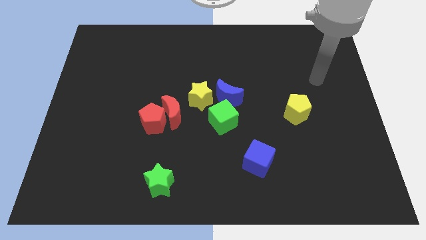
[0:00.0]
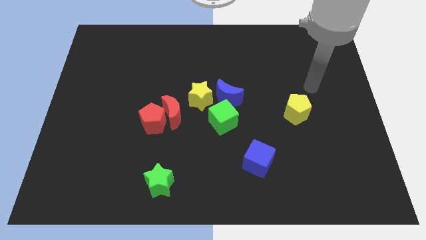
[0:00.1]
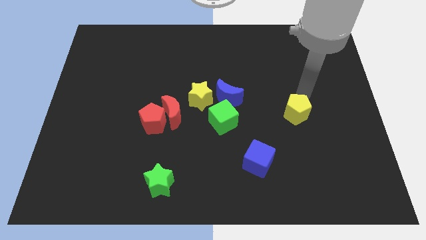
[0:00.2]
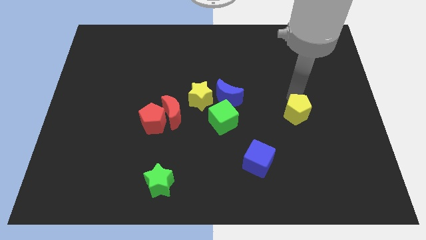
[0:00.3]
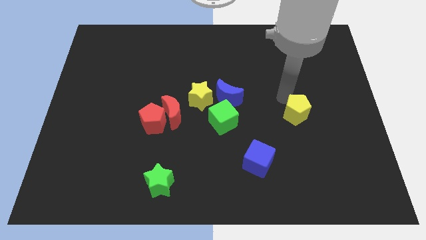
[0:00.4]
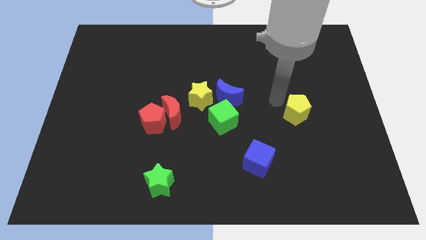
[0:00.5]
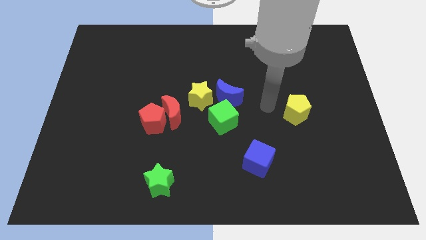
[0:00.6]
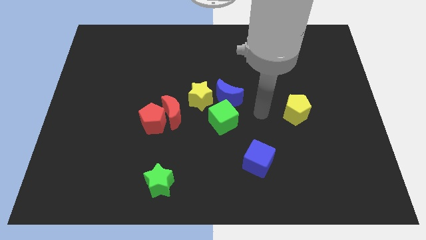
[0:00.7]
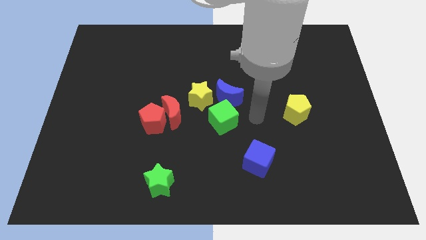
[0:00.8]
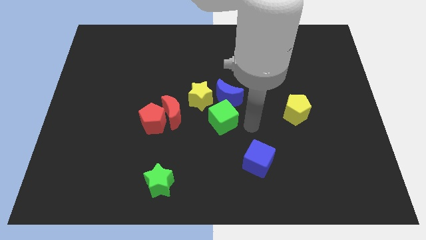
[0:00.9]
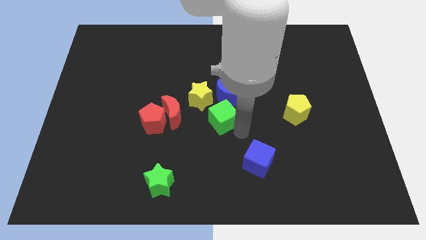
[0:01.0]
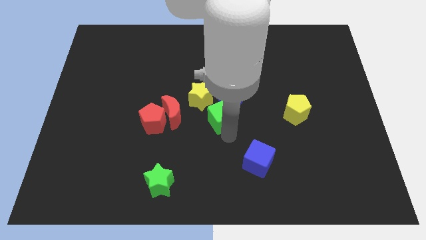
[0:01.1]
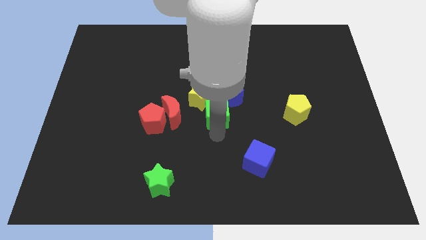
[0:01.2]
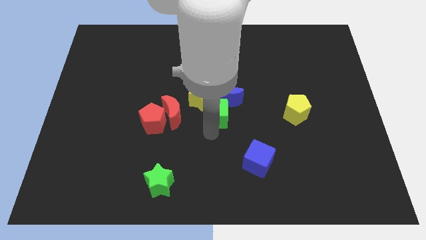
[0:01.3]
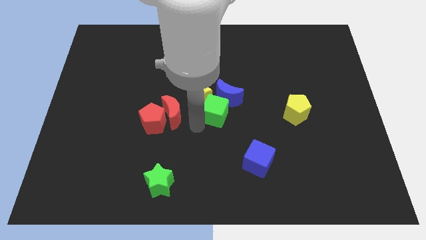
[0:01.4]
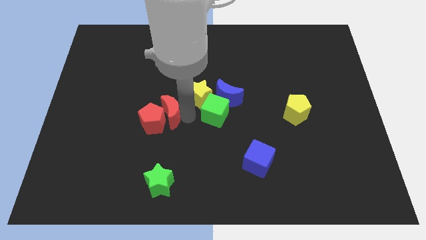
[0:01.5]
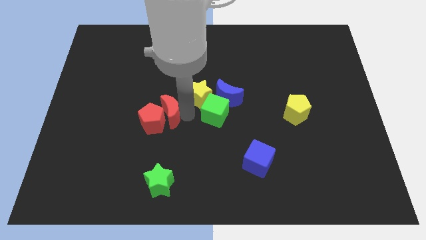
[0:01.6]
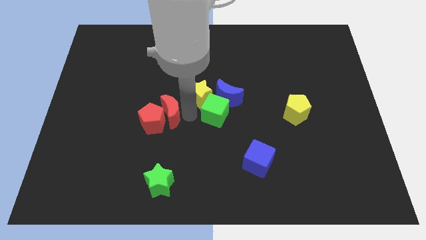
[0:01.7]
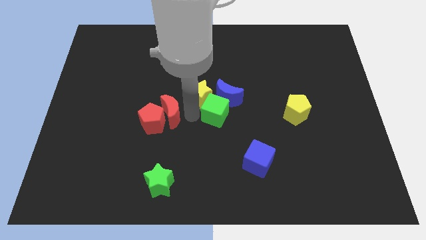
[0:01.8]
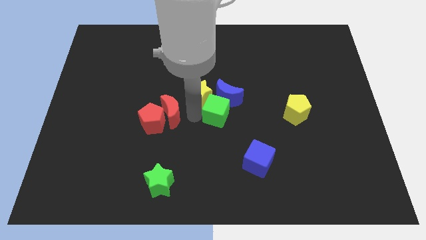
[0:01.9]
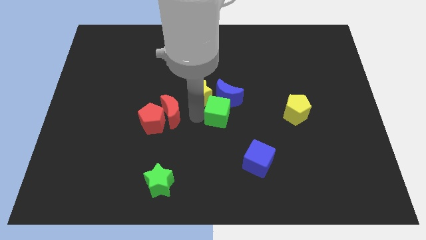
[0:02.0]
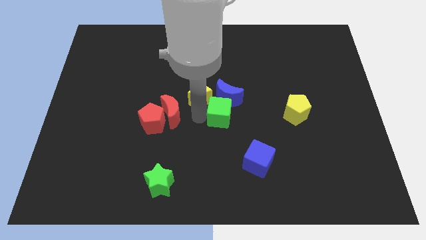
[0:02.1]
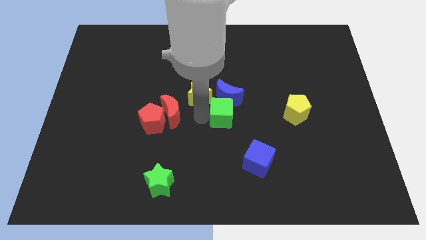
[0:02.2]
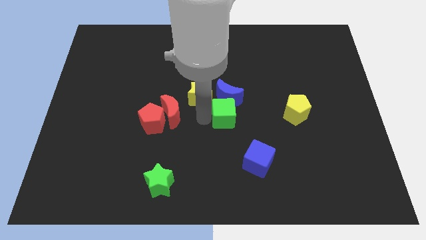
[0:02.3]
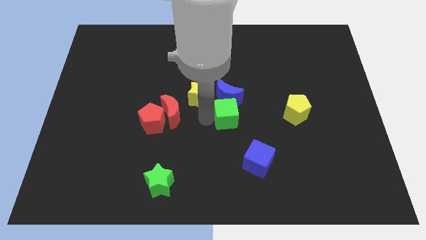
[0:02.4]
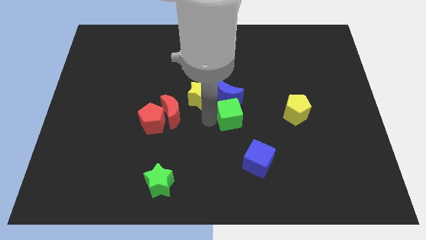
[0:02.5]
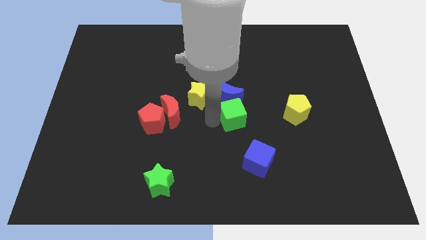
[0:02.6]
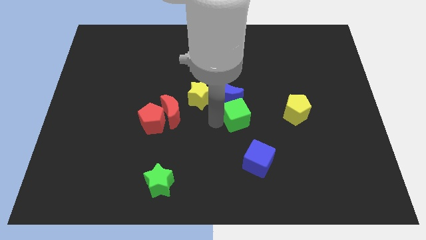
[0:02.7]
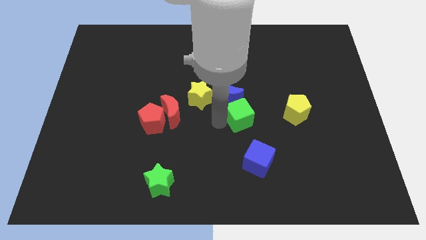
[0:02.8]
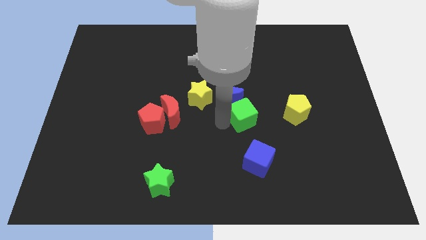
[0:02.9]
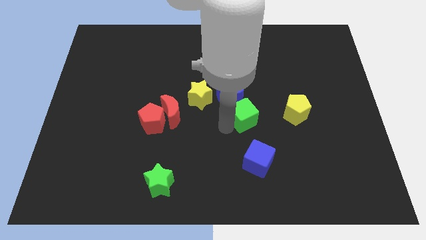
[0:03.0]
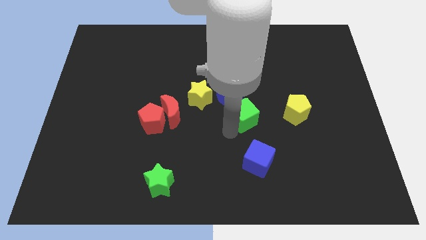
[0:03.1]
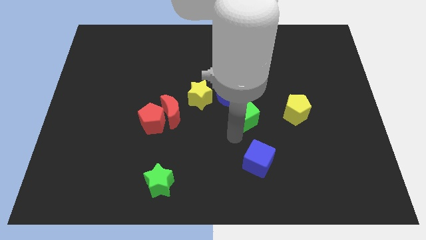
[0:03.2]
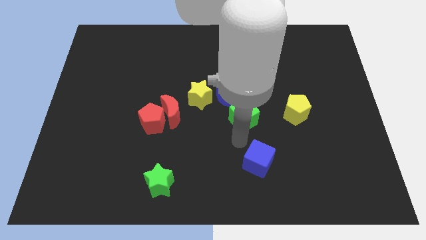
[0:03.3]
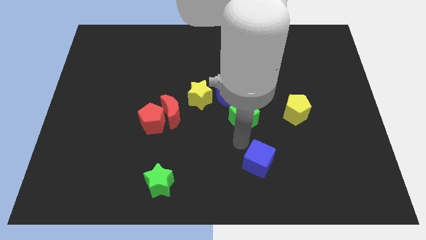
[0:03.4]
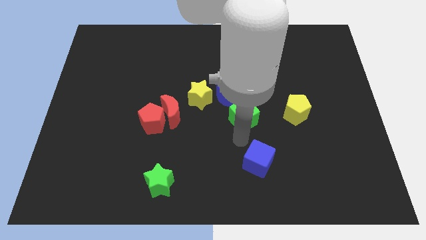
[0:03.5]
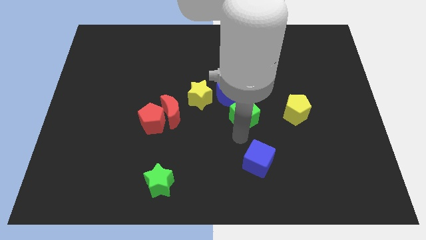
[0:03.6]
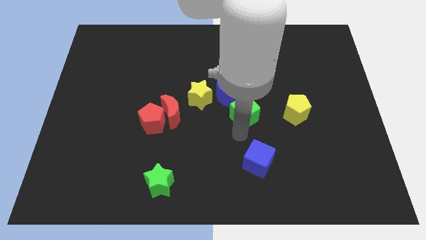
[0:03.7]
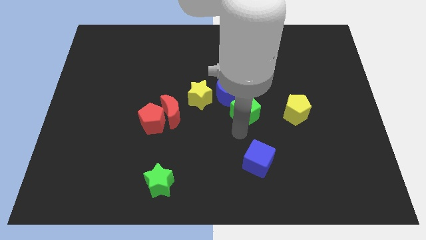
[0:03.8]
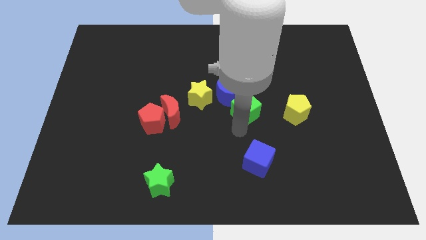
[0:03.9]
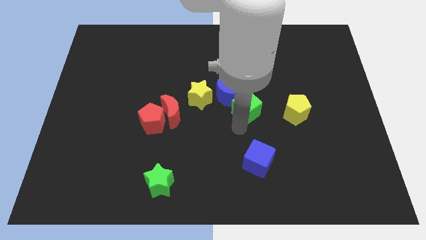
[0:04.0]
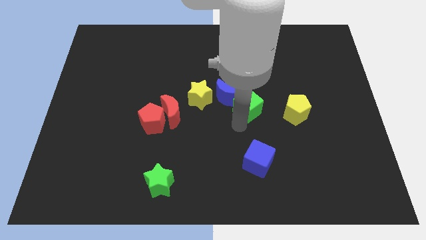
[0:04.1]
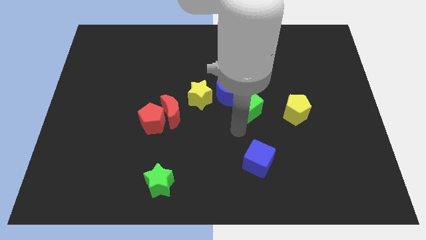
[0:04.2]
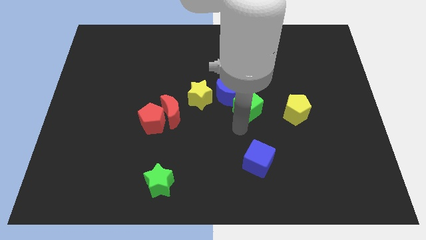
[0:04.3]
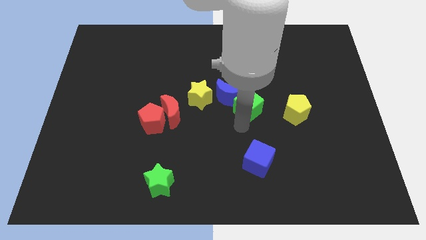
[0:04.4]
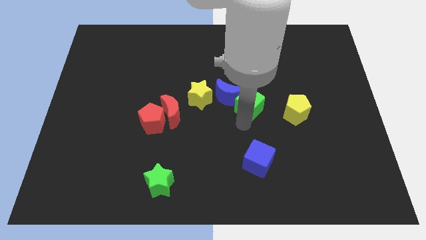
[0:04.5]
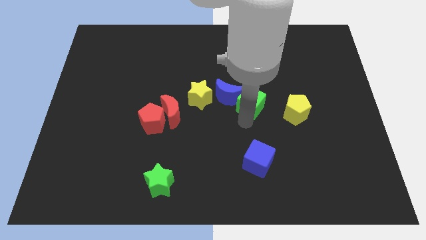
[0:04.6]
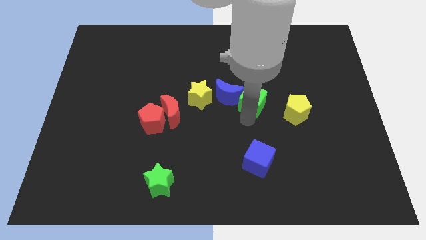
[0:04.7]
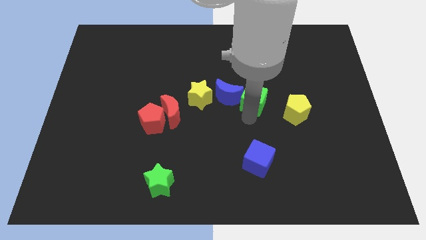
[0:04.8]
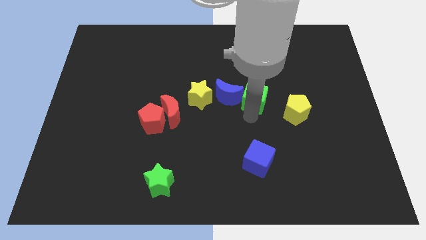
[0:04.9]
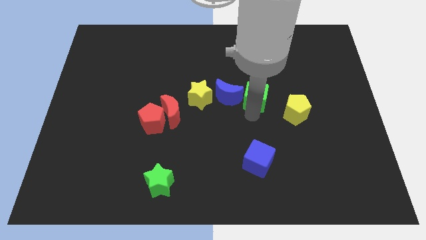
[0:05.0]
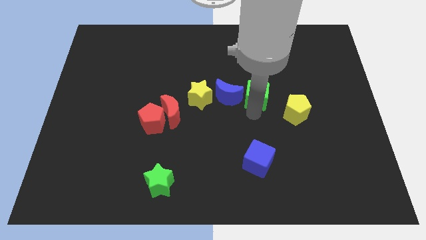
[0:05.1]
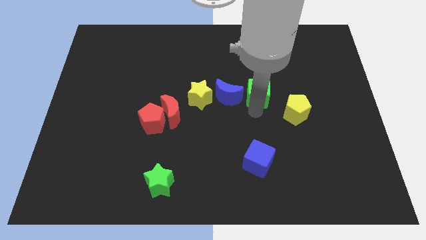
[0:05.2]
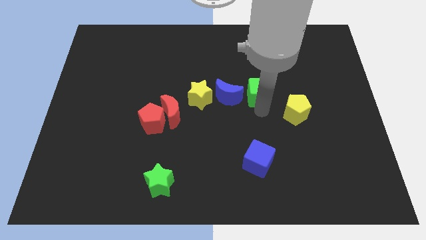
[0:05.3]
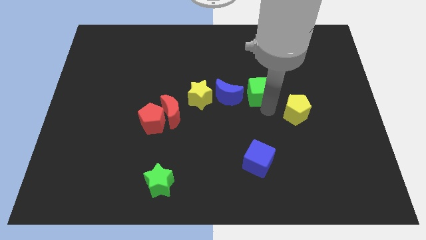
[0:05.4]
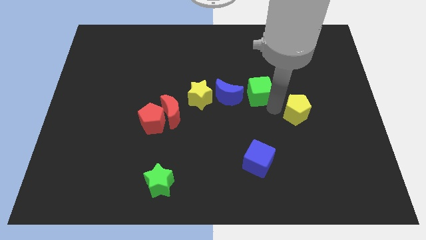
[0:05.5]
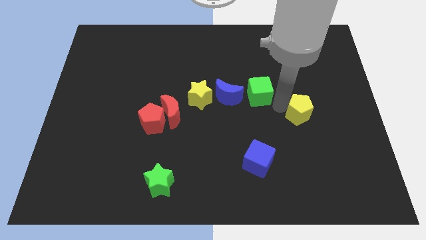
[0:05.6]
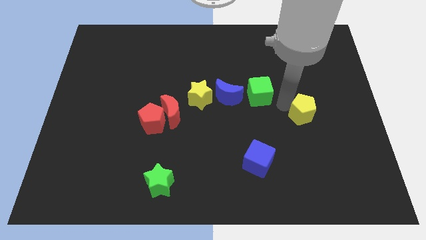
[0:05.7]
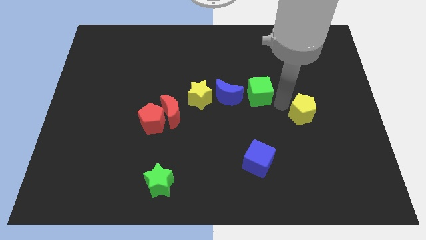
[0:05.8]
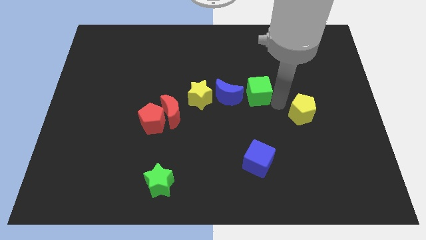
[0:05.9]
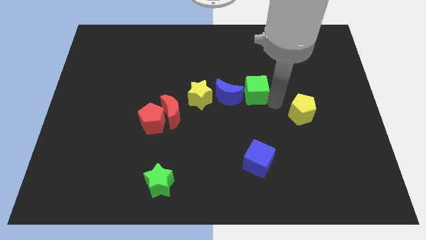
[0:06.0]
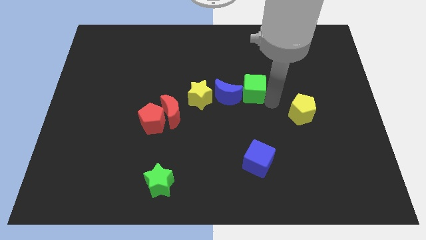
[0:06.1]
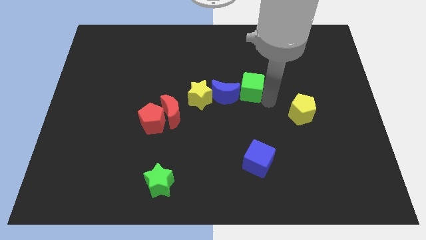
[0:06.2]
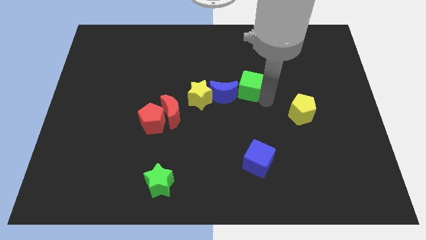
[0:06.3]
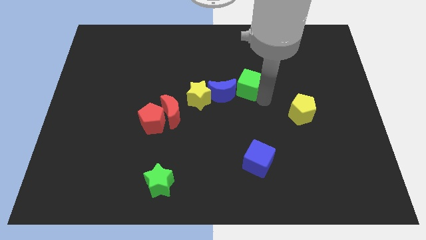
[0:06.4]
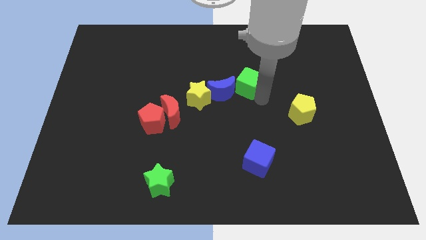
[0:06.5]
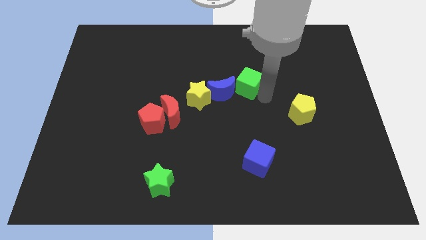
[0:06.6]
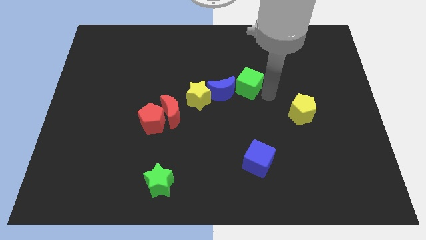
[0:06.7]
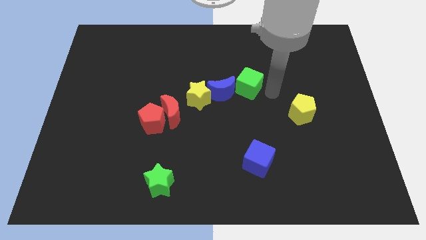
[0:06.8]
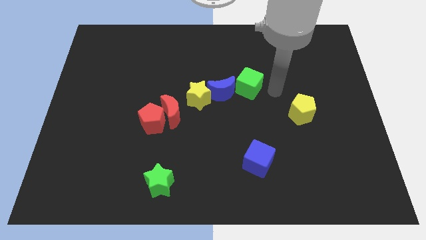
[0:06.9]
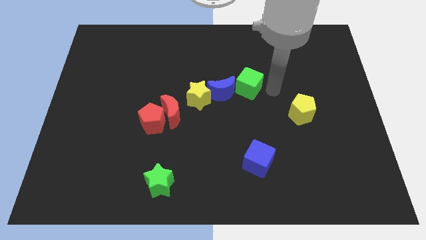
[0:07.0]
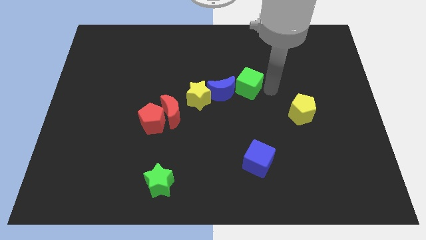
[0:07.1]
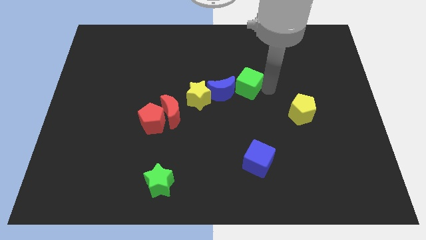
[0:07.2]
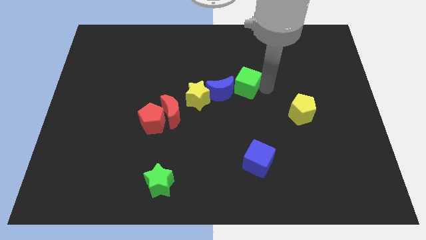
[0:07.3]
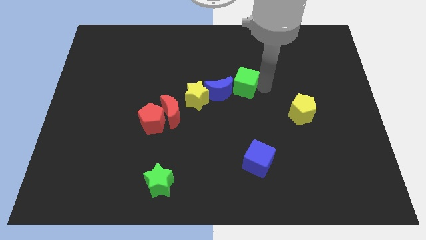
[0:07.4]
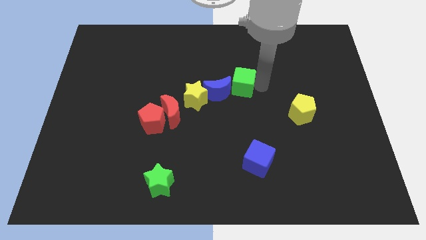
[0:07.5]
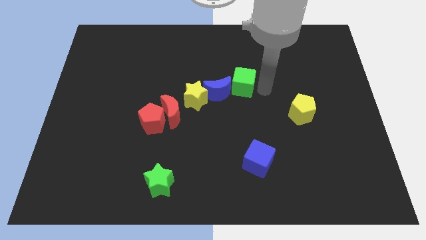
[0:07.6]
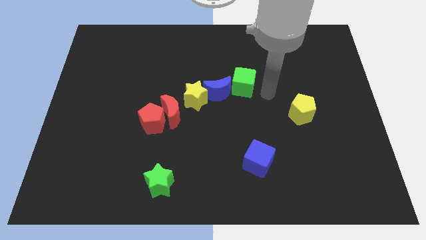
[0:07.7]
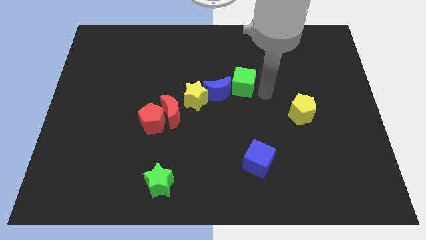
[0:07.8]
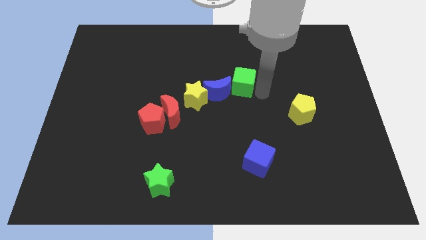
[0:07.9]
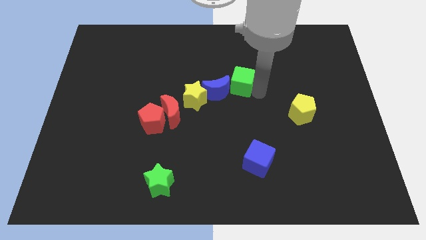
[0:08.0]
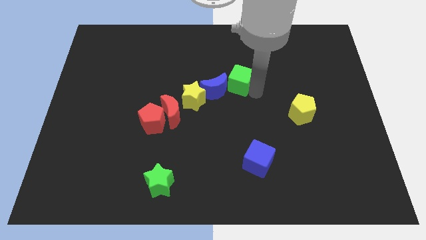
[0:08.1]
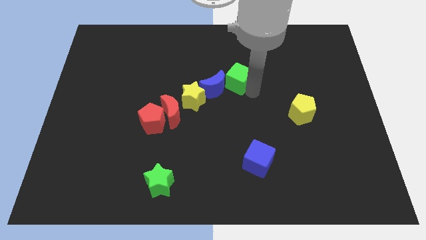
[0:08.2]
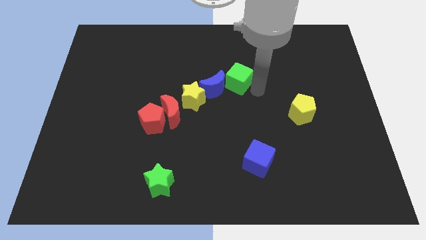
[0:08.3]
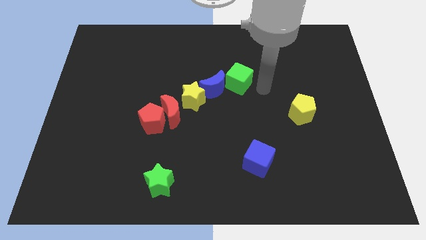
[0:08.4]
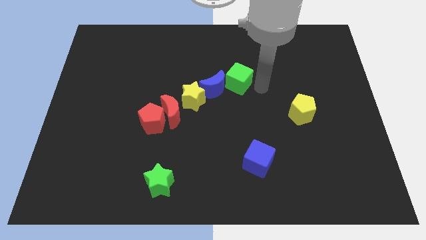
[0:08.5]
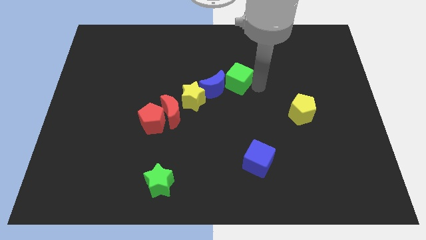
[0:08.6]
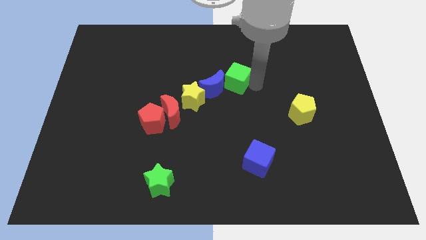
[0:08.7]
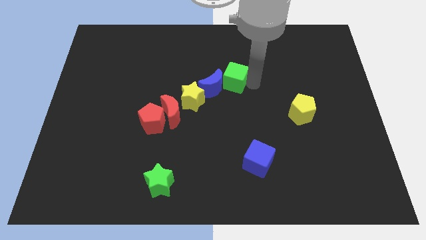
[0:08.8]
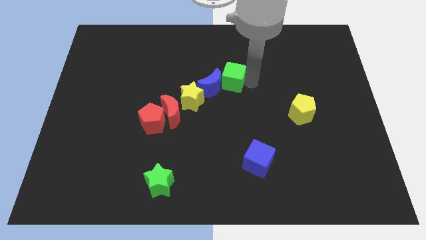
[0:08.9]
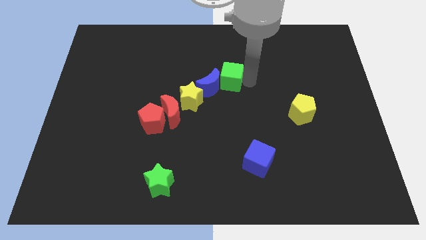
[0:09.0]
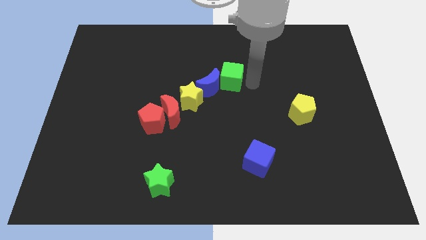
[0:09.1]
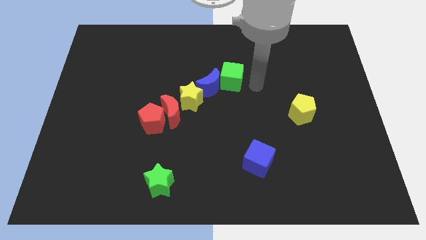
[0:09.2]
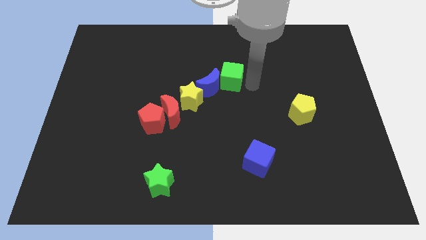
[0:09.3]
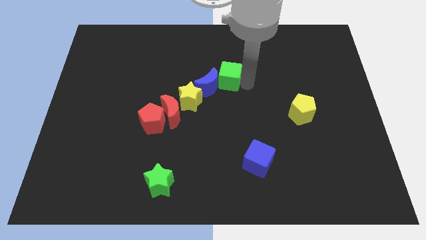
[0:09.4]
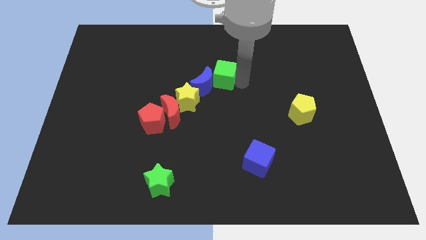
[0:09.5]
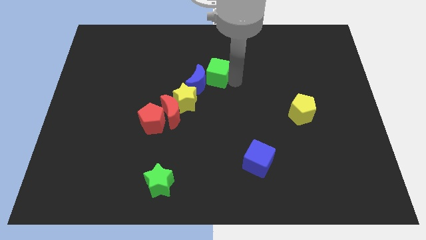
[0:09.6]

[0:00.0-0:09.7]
move the green cube a little bit diagonally up and to the left
